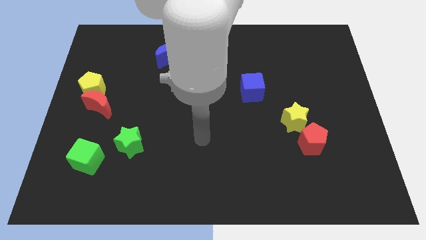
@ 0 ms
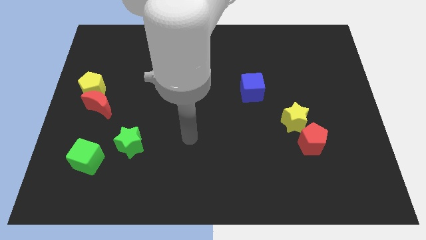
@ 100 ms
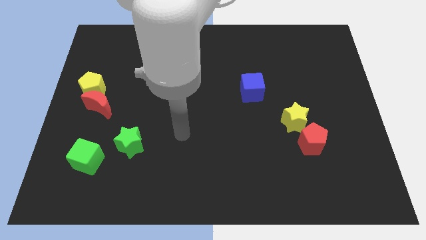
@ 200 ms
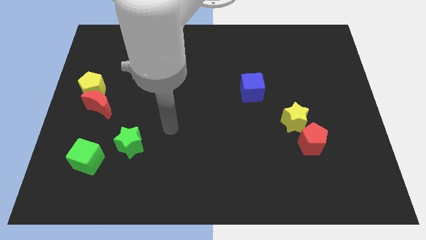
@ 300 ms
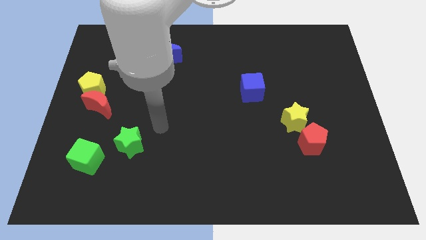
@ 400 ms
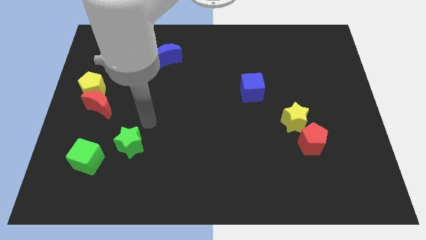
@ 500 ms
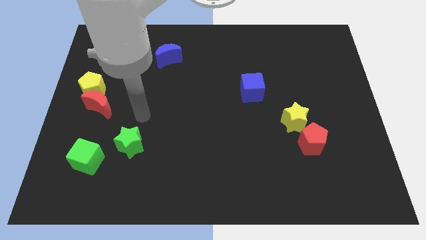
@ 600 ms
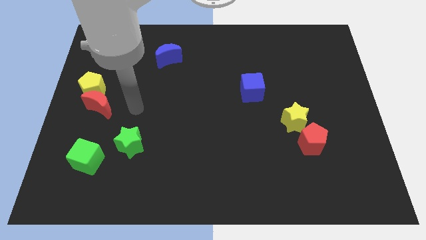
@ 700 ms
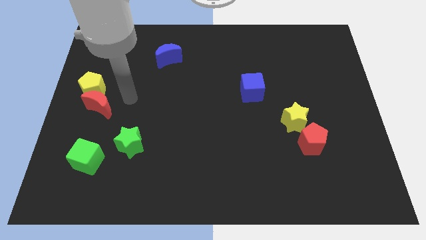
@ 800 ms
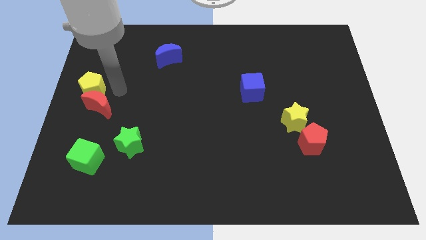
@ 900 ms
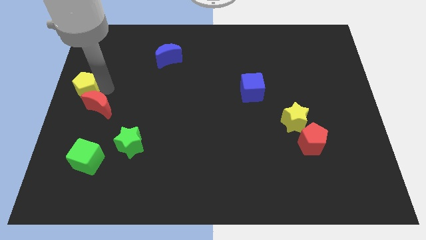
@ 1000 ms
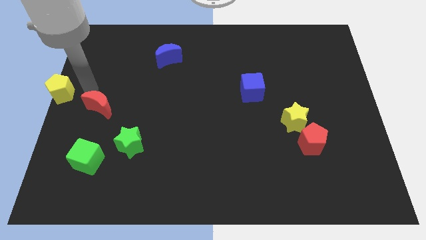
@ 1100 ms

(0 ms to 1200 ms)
separate the red moon from the yellow pentagon

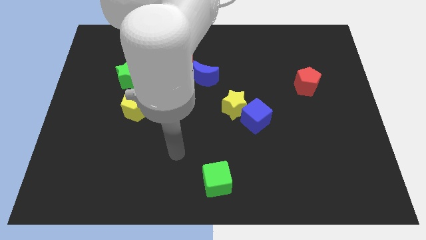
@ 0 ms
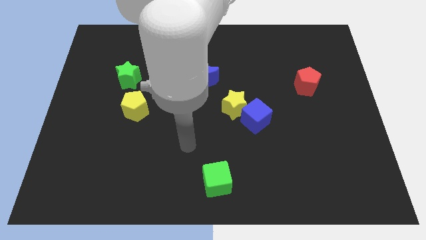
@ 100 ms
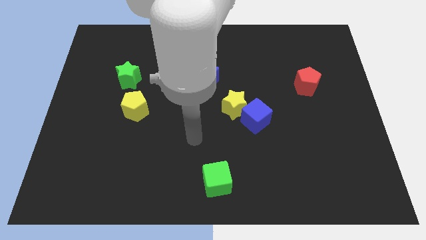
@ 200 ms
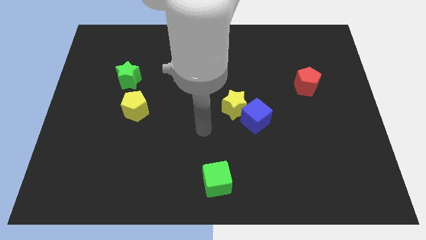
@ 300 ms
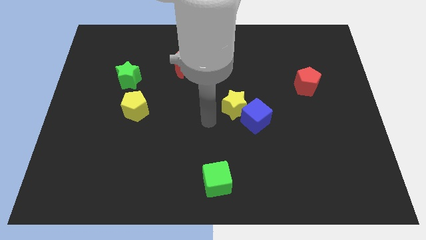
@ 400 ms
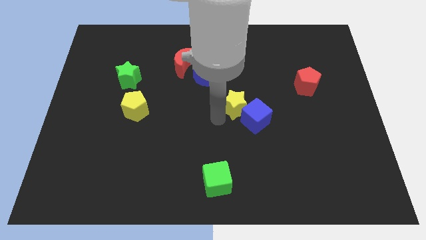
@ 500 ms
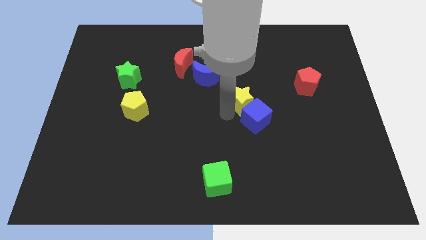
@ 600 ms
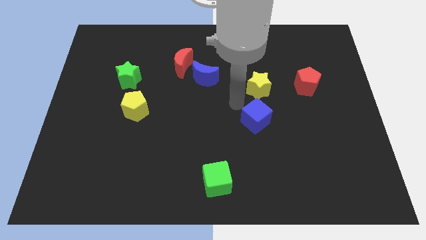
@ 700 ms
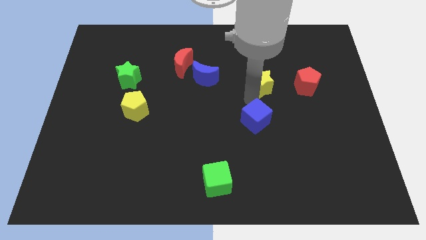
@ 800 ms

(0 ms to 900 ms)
move the blue cube away from the yellow star

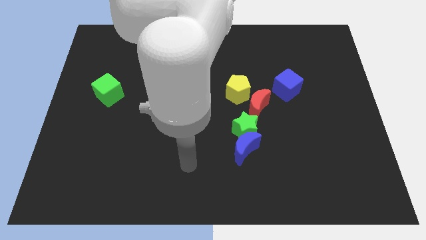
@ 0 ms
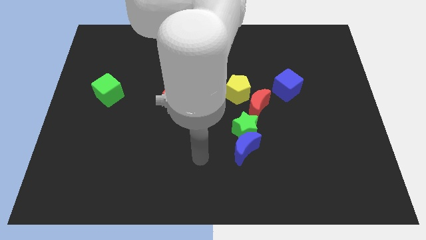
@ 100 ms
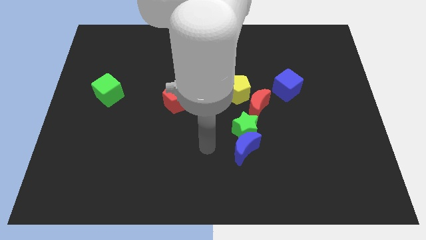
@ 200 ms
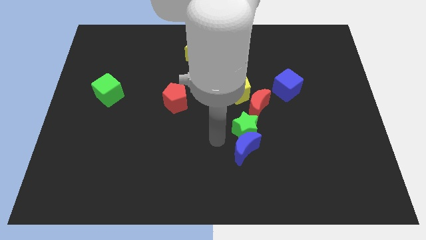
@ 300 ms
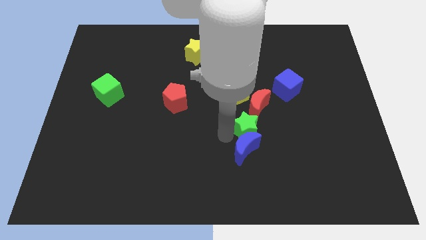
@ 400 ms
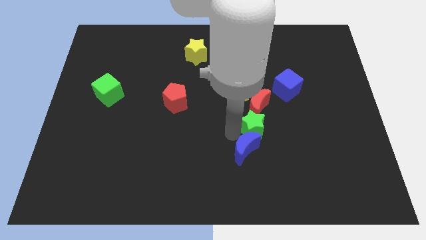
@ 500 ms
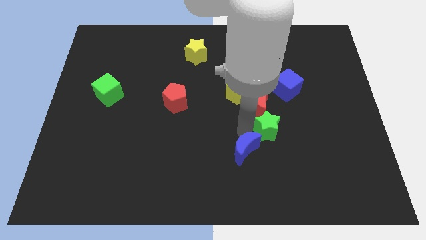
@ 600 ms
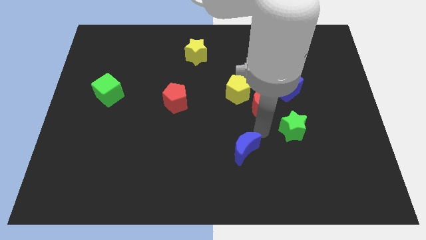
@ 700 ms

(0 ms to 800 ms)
move the blue moon away from the green star

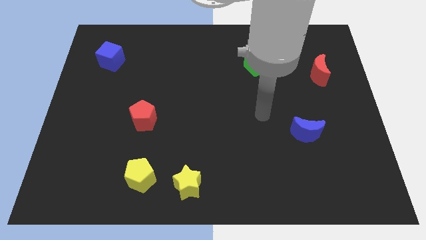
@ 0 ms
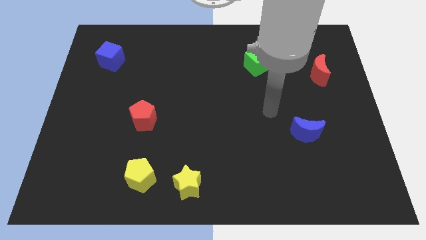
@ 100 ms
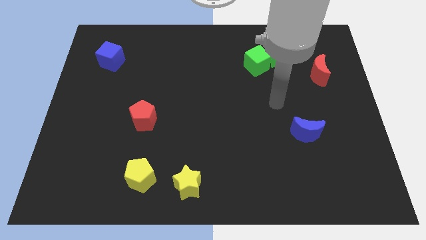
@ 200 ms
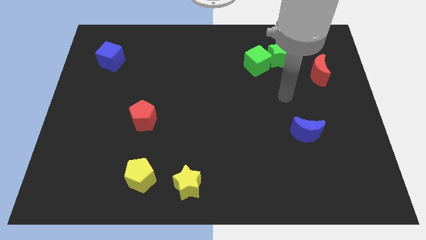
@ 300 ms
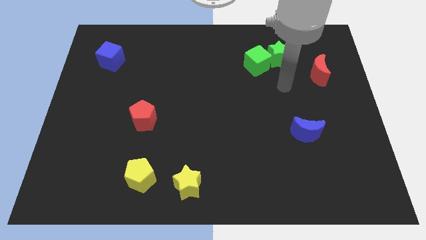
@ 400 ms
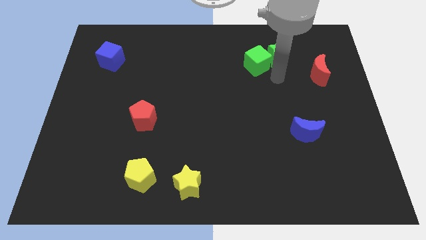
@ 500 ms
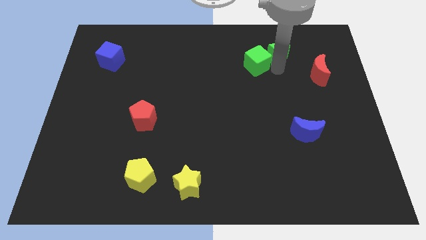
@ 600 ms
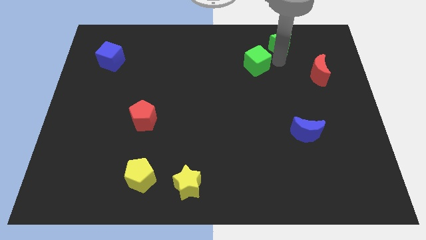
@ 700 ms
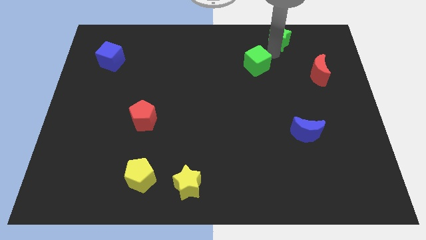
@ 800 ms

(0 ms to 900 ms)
move the green cube away from the green star

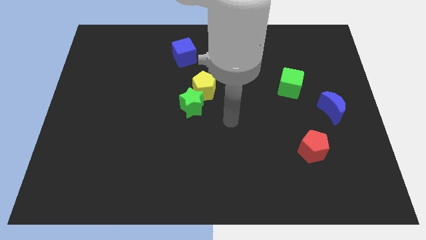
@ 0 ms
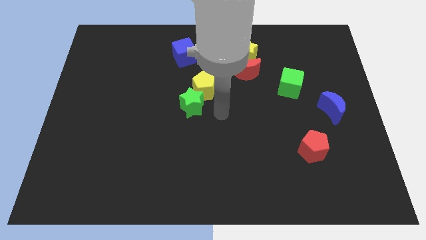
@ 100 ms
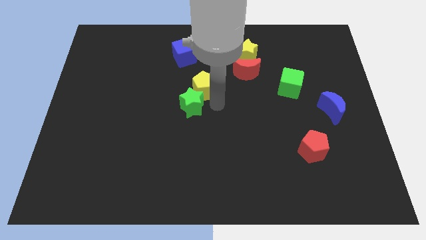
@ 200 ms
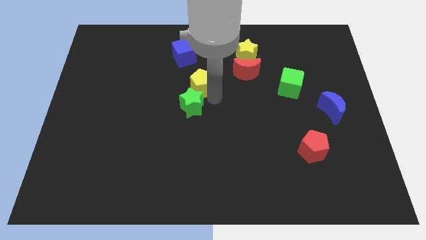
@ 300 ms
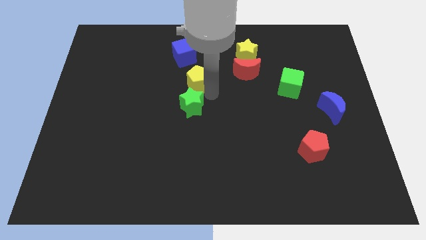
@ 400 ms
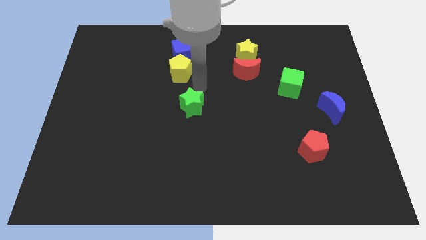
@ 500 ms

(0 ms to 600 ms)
move the green star away from the yellow pentagon

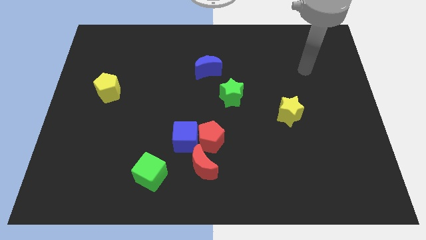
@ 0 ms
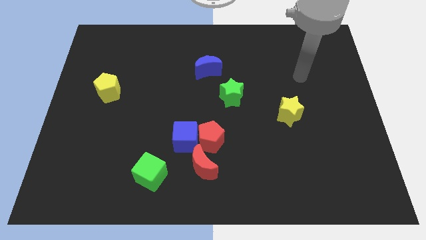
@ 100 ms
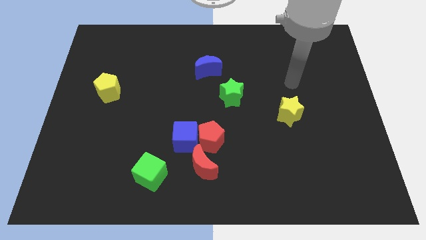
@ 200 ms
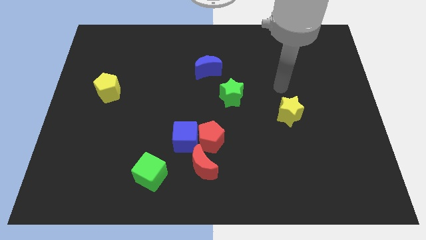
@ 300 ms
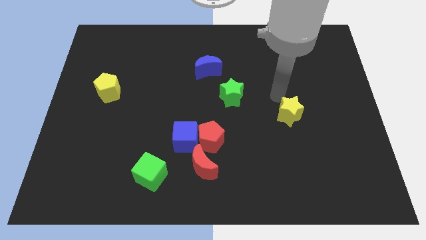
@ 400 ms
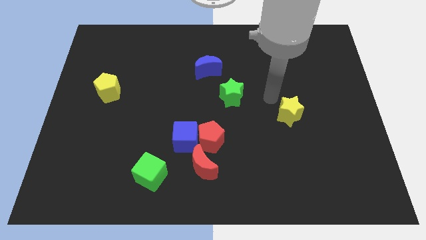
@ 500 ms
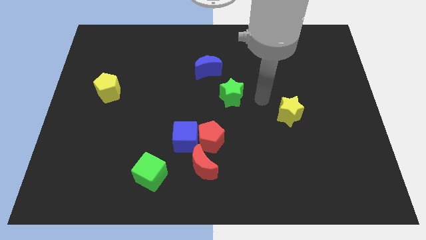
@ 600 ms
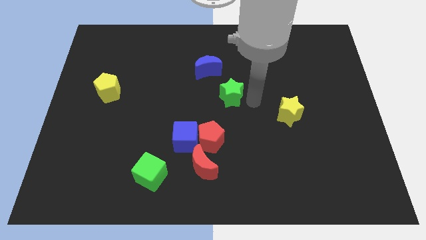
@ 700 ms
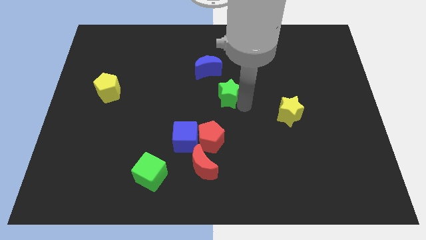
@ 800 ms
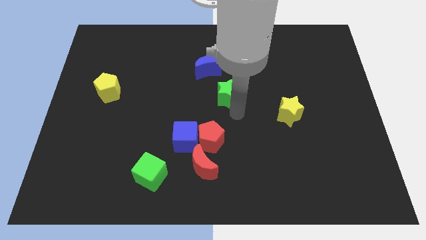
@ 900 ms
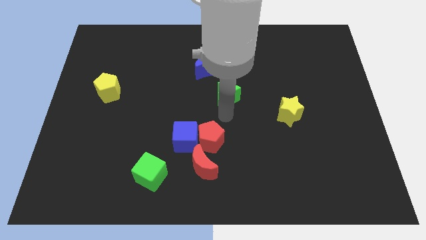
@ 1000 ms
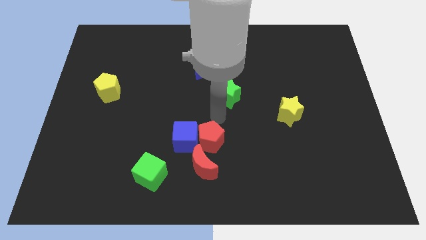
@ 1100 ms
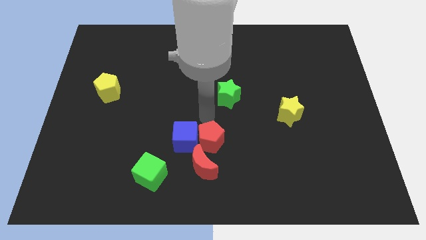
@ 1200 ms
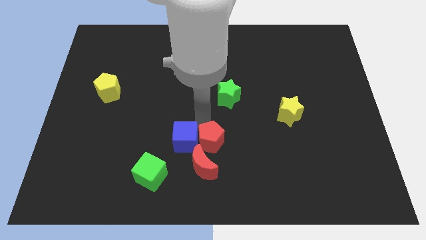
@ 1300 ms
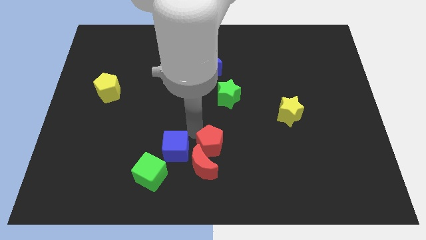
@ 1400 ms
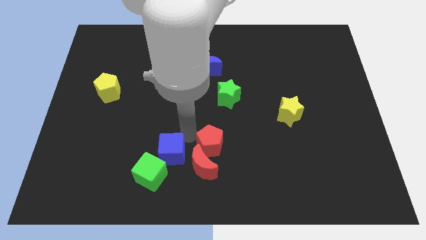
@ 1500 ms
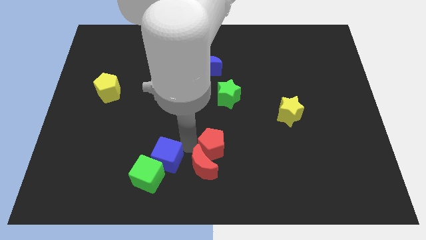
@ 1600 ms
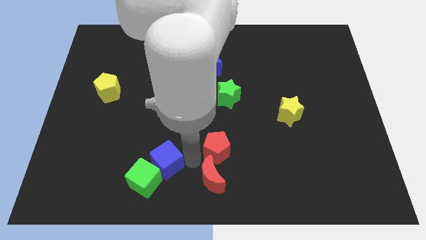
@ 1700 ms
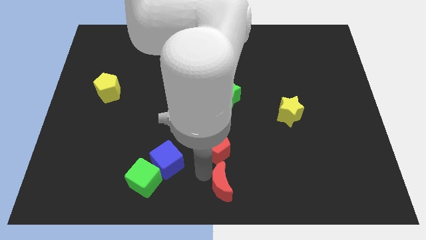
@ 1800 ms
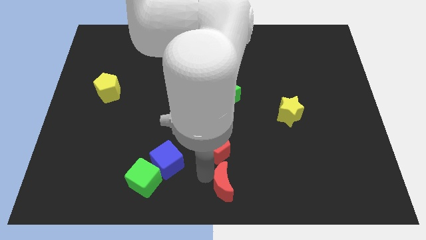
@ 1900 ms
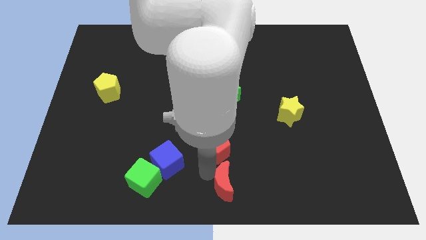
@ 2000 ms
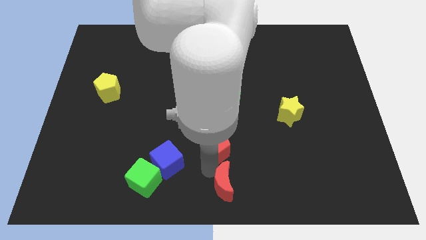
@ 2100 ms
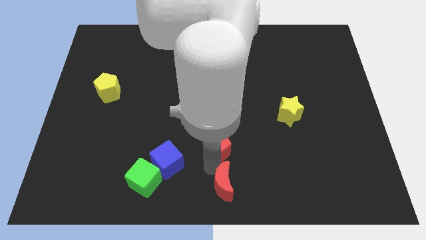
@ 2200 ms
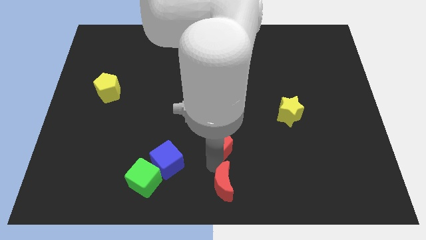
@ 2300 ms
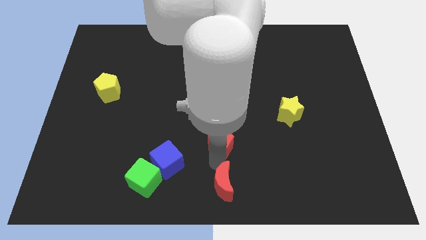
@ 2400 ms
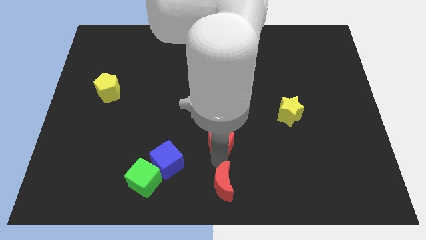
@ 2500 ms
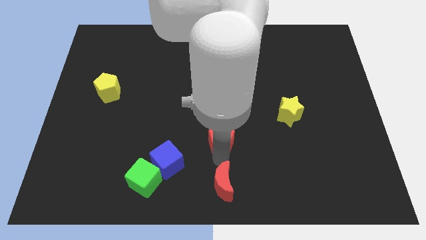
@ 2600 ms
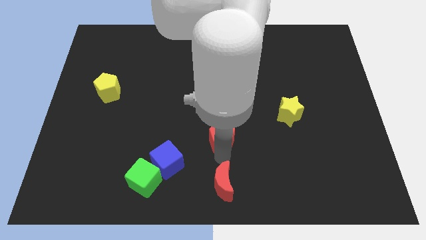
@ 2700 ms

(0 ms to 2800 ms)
move the red pentagon away from the blue cube and red moon

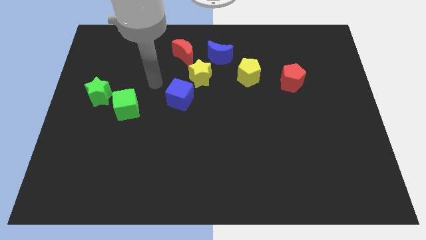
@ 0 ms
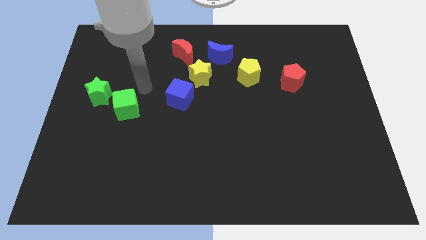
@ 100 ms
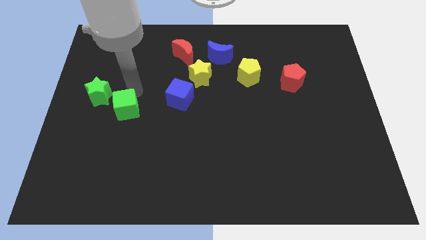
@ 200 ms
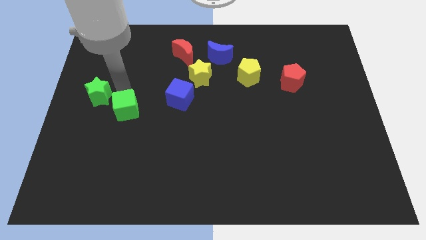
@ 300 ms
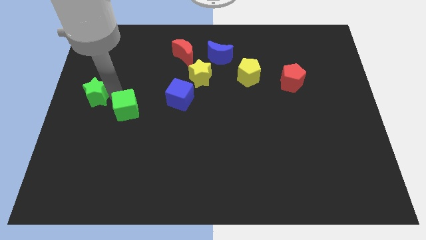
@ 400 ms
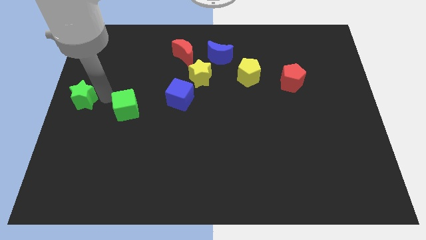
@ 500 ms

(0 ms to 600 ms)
separate the green cube from the green star

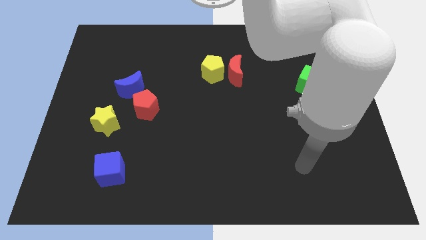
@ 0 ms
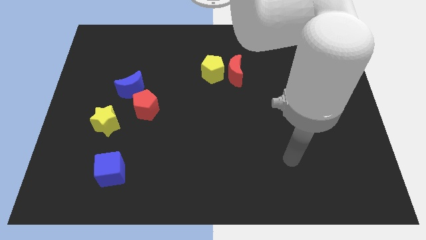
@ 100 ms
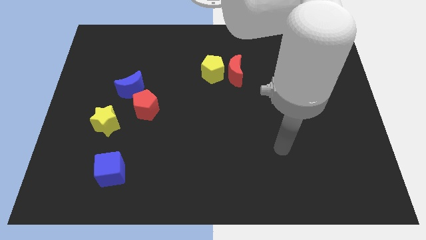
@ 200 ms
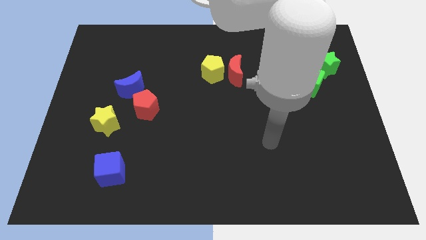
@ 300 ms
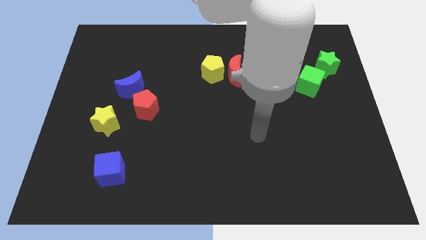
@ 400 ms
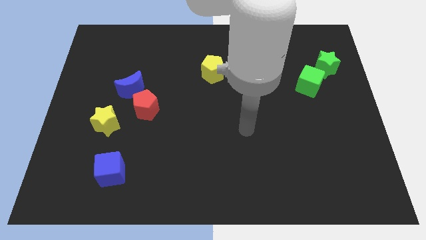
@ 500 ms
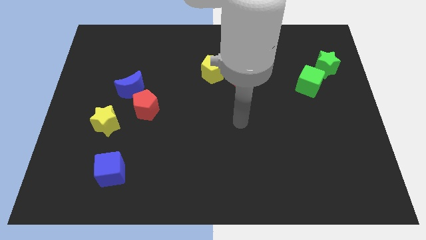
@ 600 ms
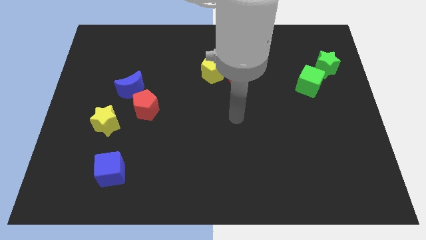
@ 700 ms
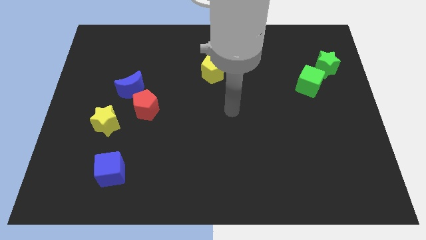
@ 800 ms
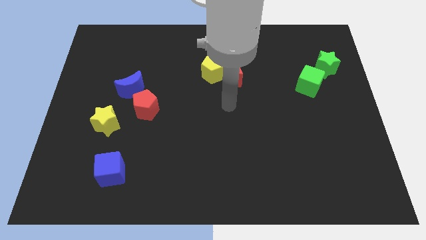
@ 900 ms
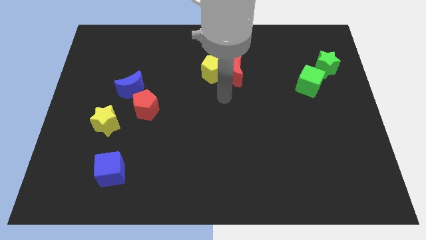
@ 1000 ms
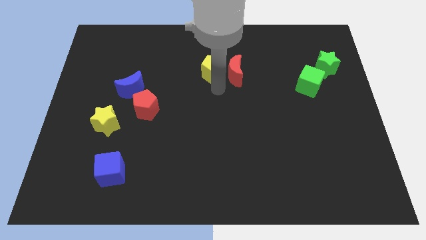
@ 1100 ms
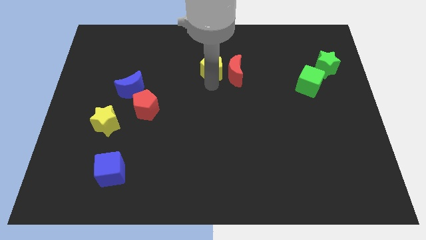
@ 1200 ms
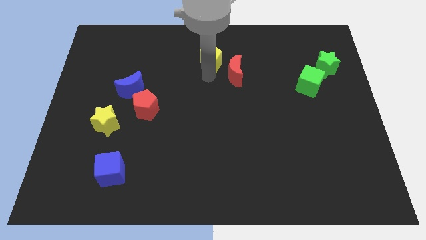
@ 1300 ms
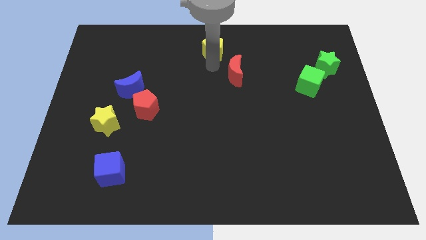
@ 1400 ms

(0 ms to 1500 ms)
move the red moon away from the yellow pentagon
